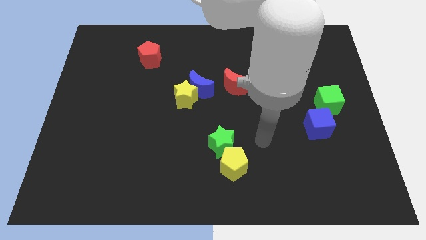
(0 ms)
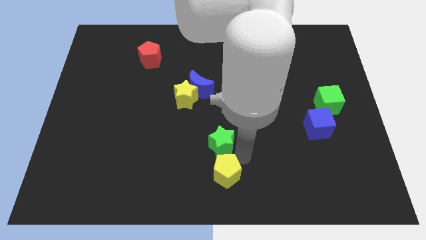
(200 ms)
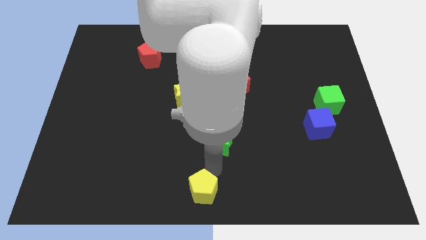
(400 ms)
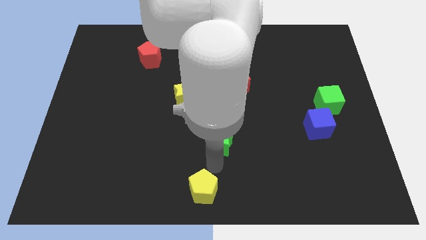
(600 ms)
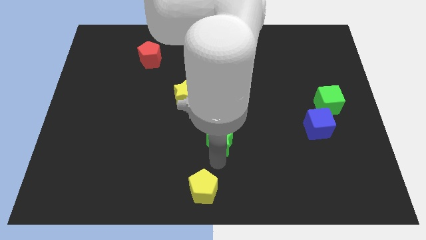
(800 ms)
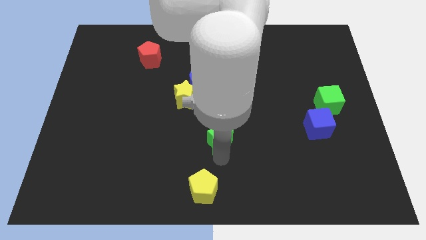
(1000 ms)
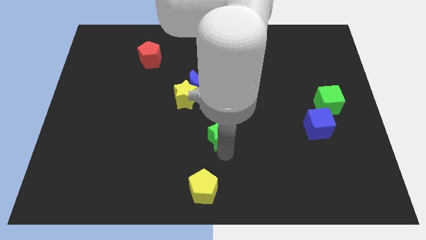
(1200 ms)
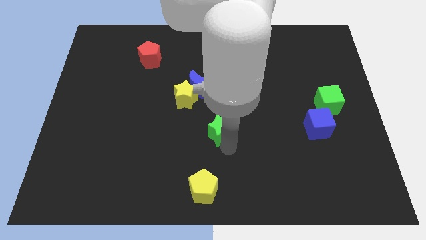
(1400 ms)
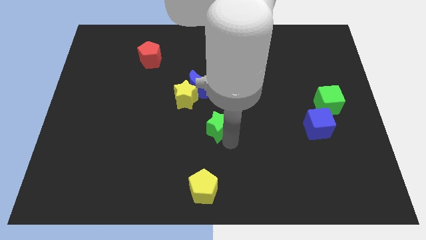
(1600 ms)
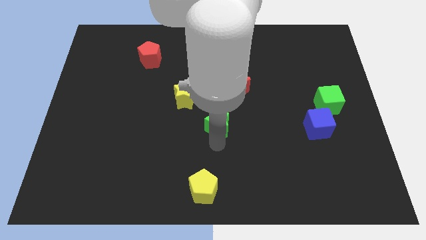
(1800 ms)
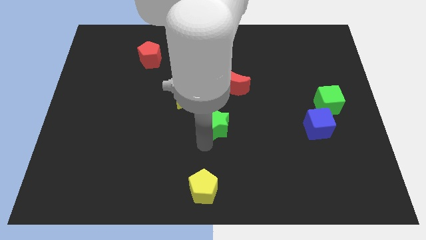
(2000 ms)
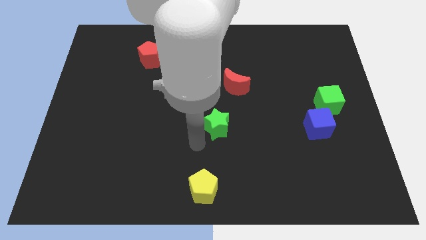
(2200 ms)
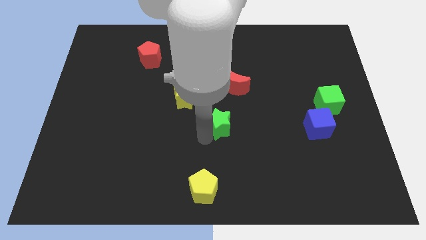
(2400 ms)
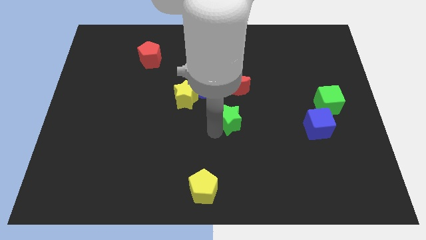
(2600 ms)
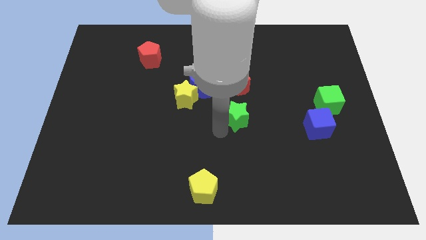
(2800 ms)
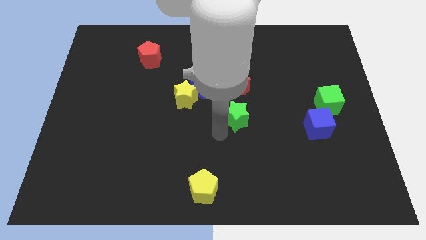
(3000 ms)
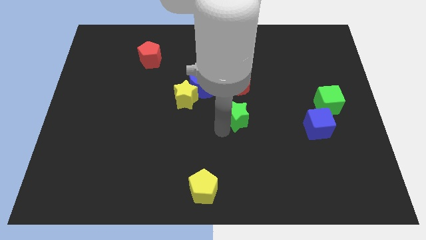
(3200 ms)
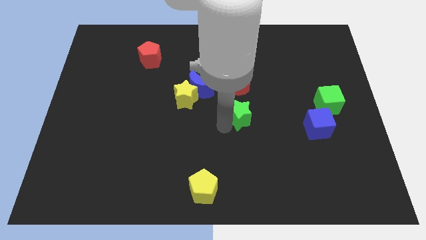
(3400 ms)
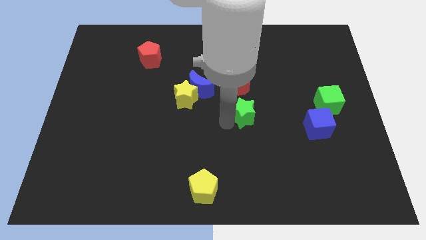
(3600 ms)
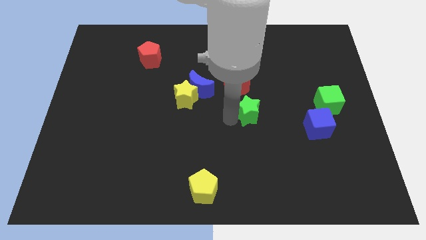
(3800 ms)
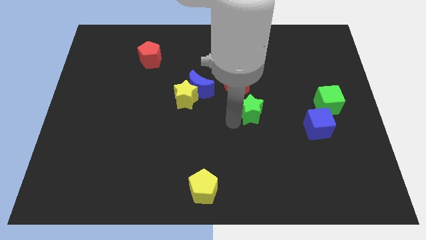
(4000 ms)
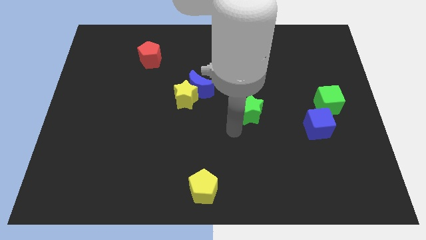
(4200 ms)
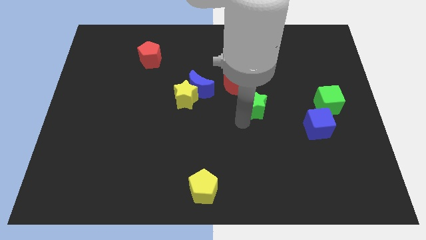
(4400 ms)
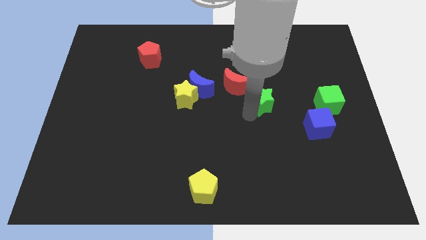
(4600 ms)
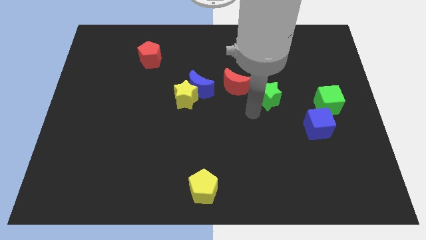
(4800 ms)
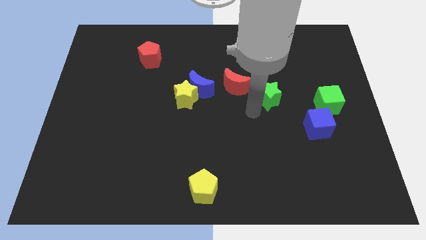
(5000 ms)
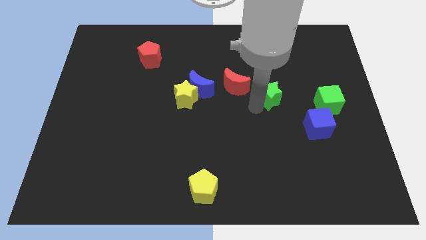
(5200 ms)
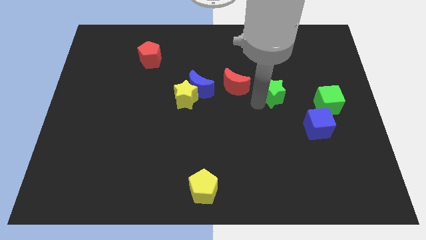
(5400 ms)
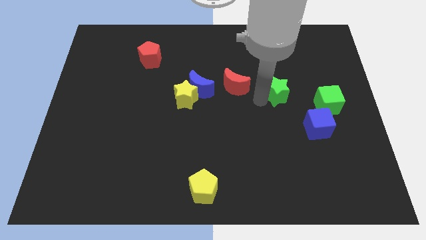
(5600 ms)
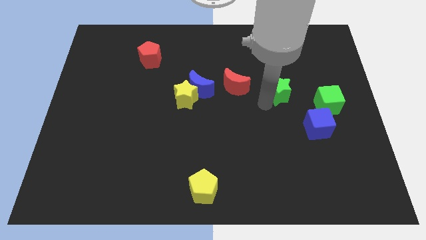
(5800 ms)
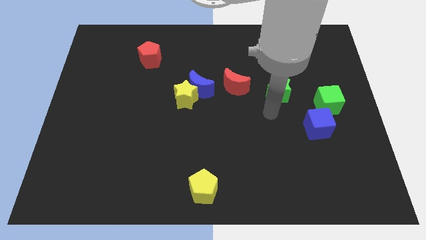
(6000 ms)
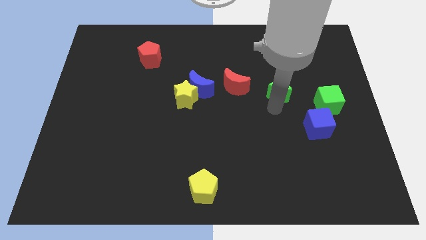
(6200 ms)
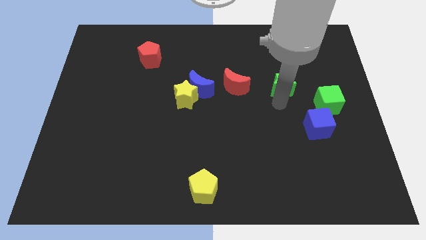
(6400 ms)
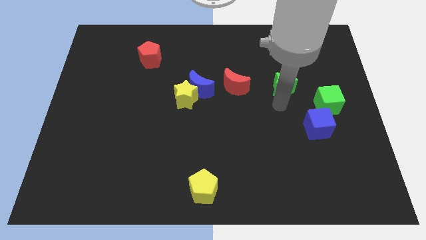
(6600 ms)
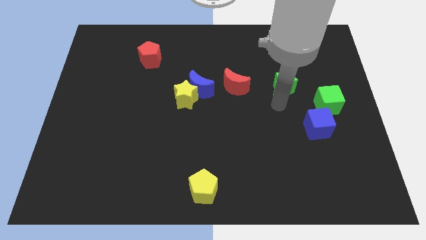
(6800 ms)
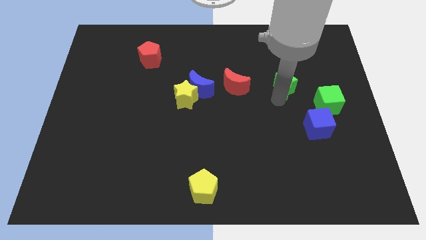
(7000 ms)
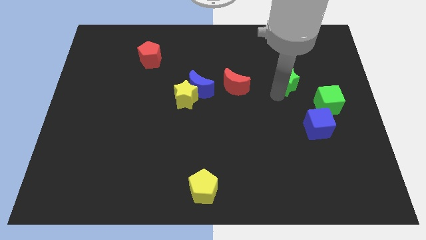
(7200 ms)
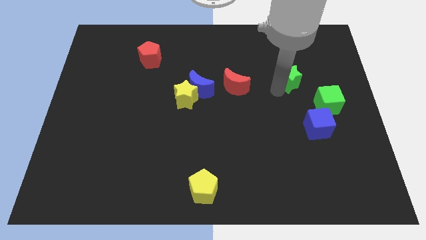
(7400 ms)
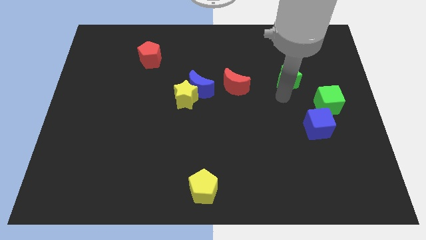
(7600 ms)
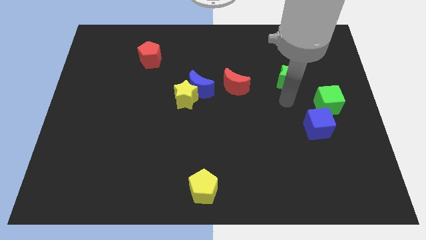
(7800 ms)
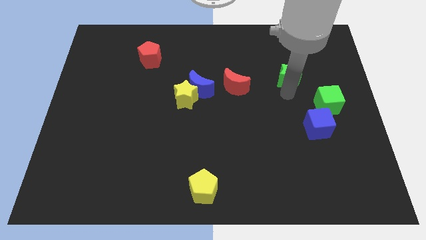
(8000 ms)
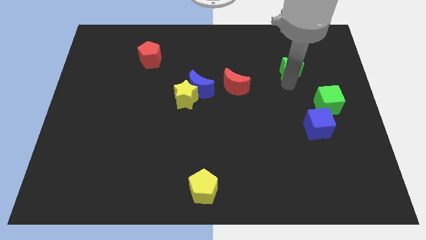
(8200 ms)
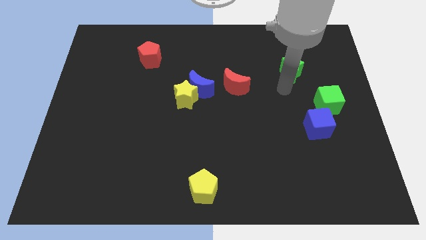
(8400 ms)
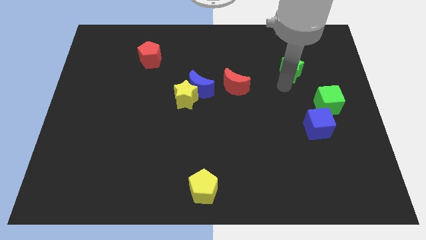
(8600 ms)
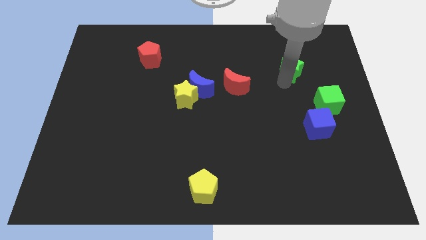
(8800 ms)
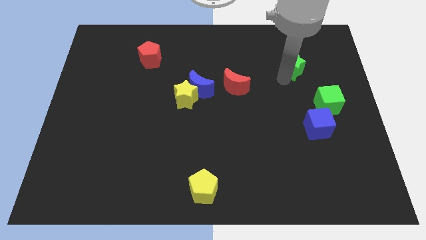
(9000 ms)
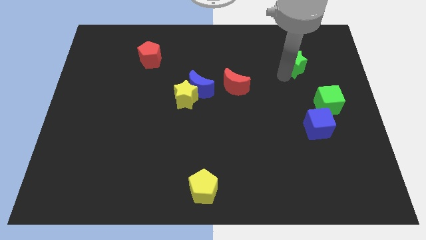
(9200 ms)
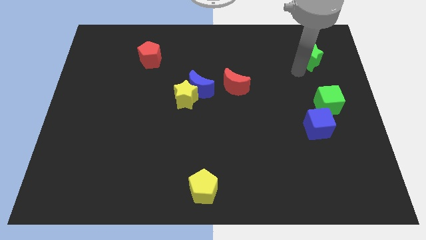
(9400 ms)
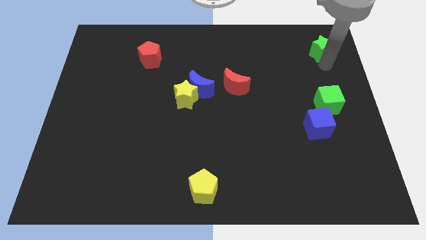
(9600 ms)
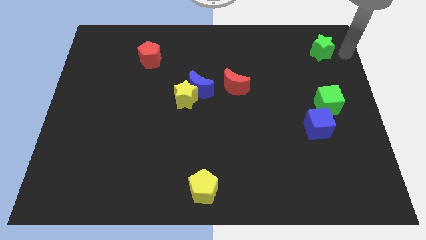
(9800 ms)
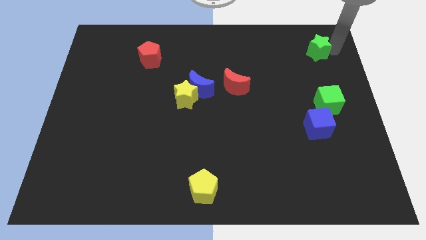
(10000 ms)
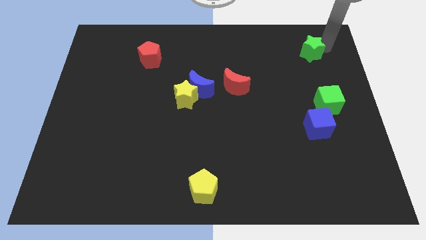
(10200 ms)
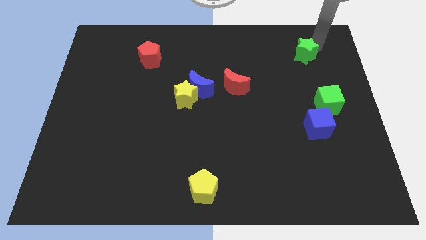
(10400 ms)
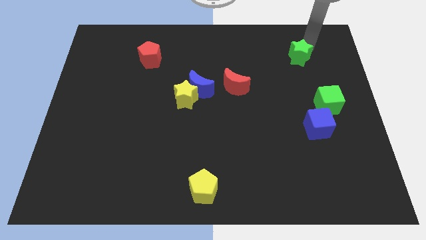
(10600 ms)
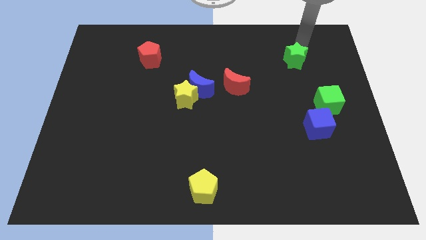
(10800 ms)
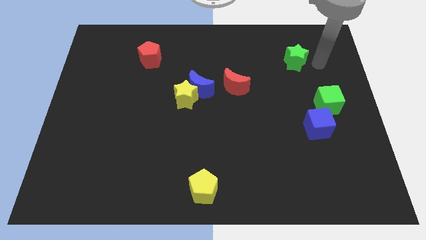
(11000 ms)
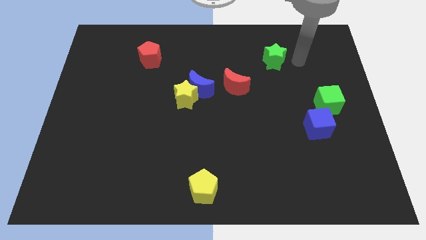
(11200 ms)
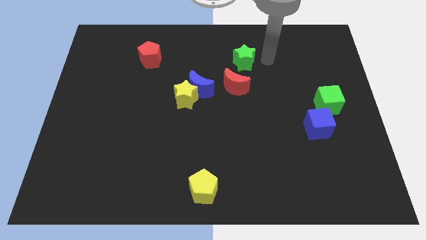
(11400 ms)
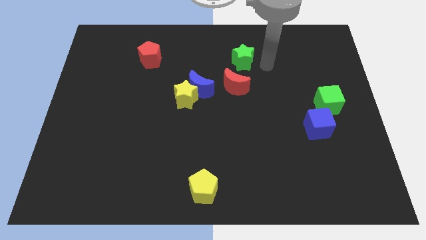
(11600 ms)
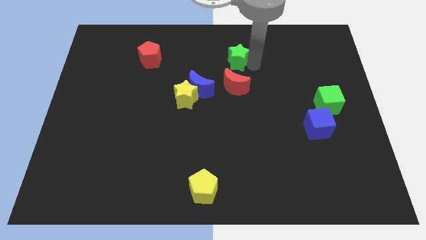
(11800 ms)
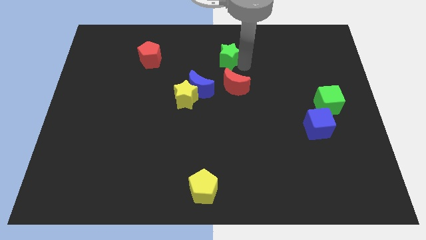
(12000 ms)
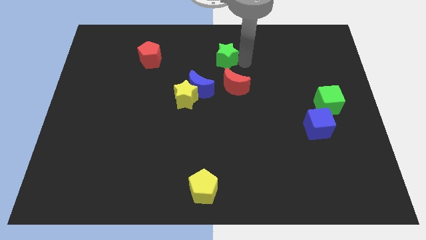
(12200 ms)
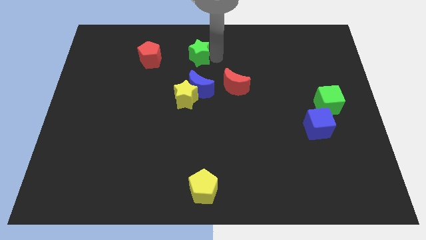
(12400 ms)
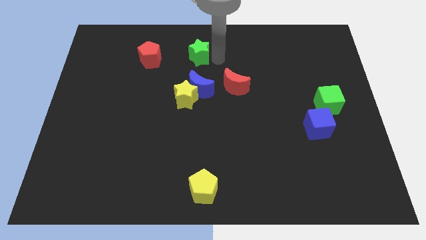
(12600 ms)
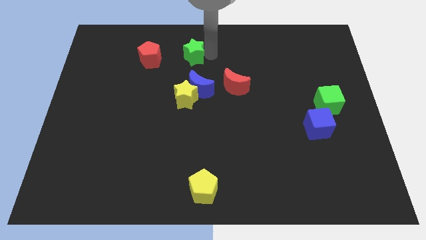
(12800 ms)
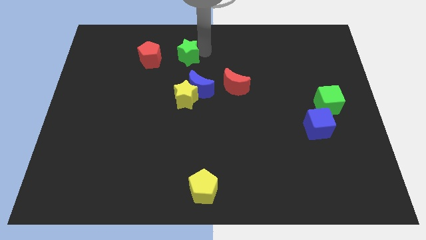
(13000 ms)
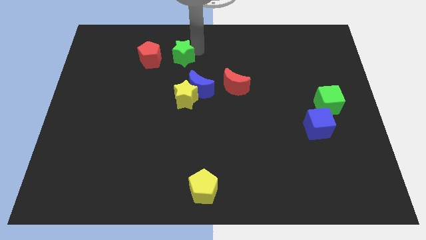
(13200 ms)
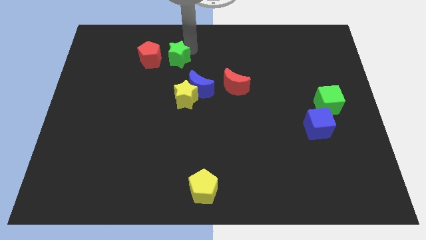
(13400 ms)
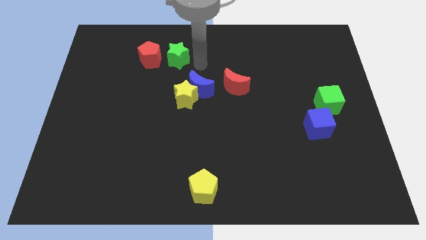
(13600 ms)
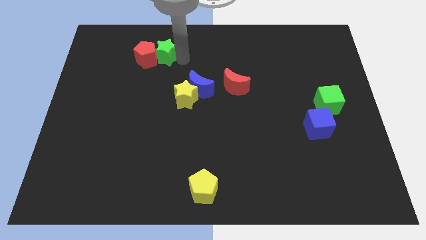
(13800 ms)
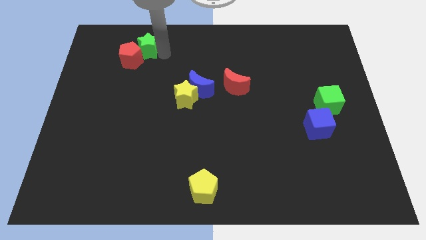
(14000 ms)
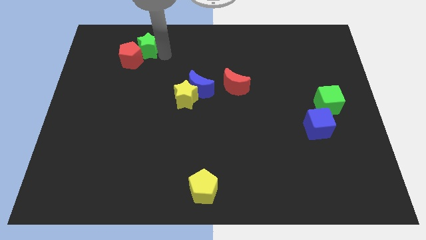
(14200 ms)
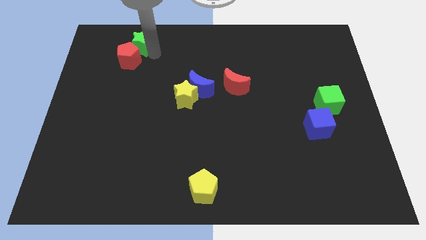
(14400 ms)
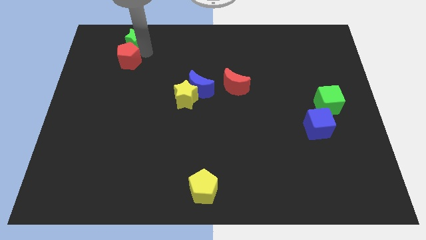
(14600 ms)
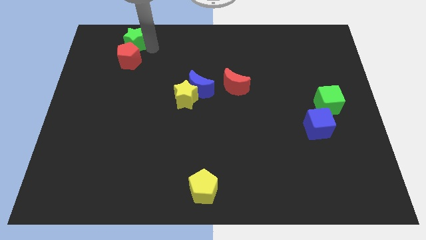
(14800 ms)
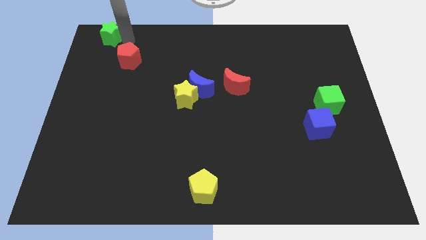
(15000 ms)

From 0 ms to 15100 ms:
push the green star to the top left
